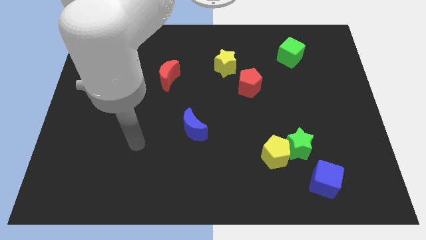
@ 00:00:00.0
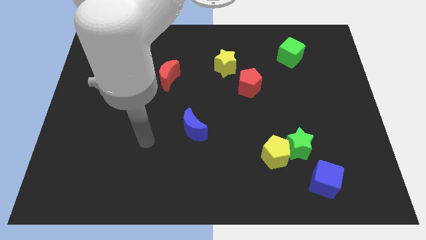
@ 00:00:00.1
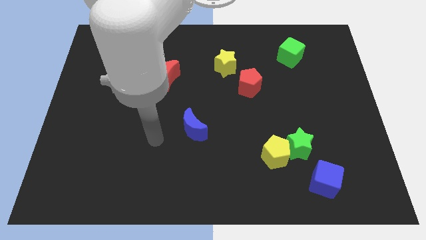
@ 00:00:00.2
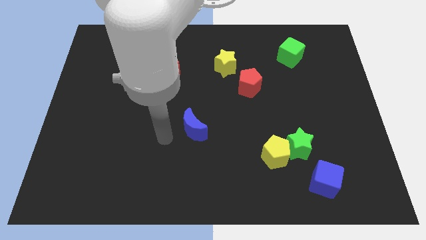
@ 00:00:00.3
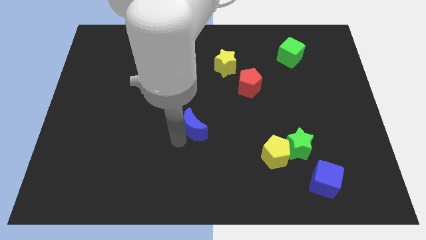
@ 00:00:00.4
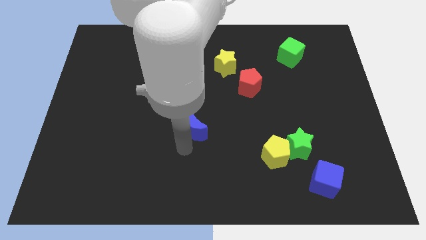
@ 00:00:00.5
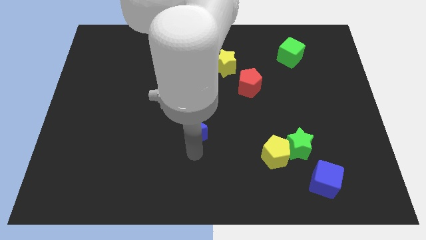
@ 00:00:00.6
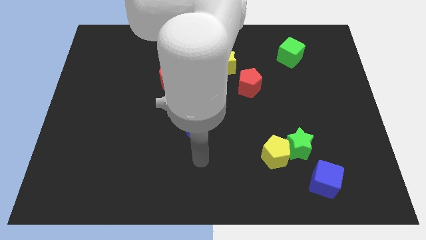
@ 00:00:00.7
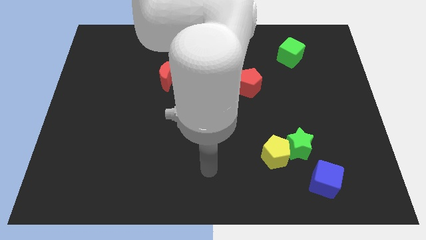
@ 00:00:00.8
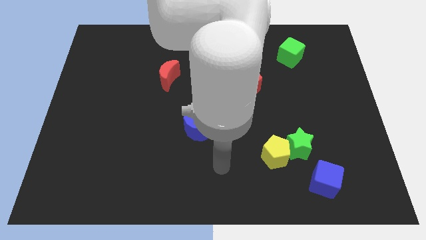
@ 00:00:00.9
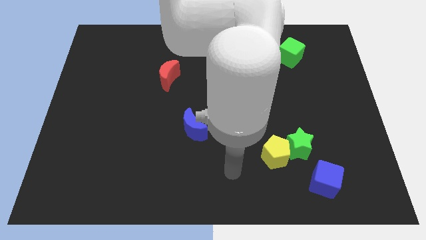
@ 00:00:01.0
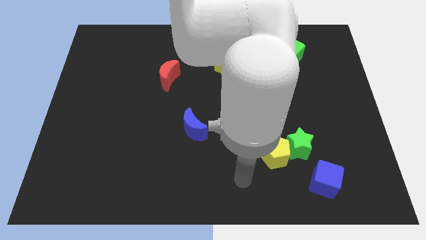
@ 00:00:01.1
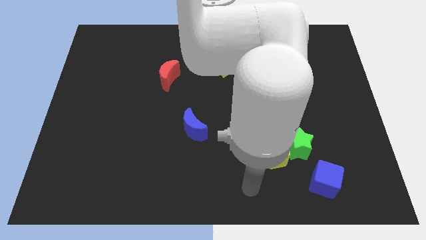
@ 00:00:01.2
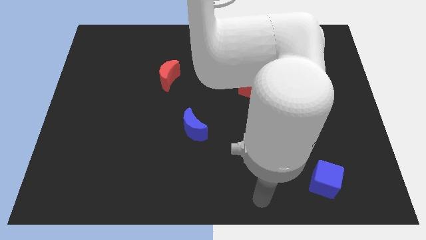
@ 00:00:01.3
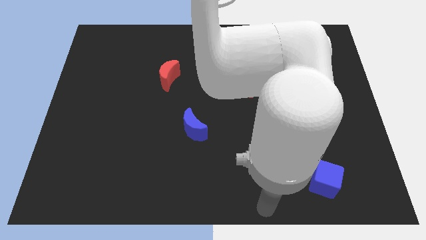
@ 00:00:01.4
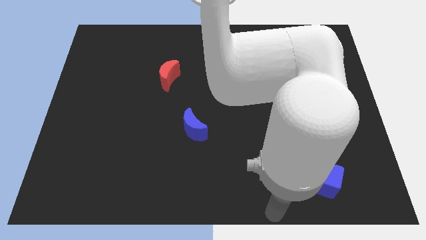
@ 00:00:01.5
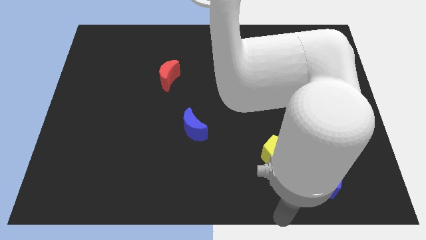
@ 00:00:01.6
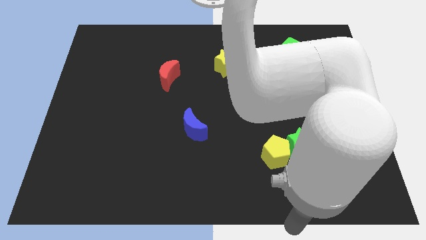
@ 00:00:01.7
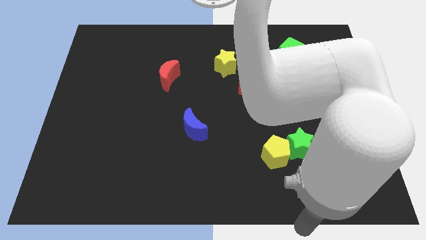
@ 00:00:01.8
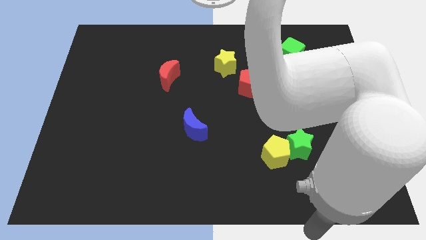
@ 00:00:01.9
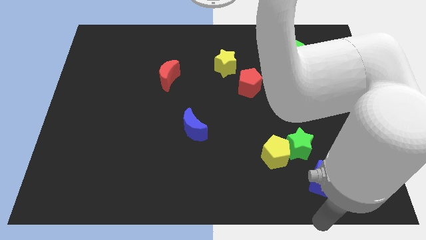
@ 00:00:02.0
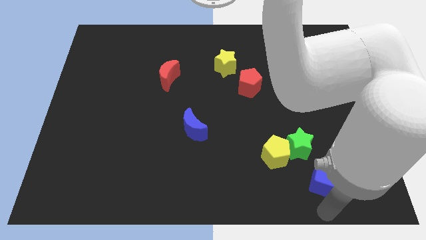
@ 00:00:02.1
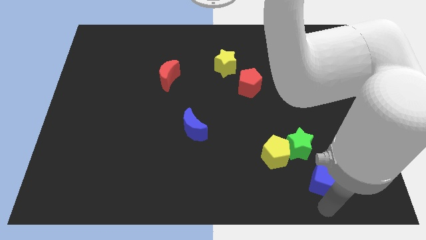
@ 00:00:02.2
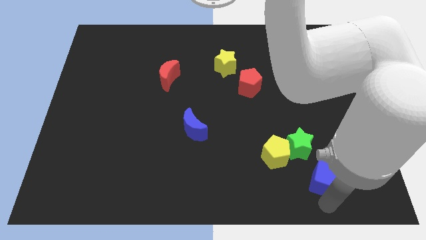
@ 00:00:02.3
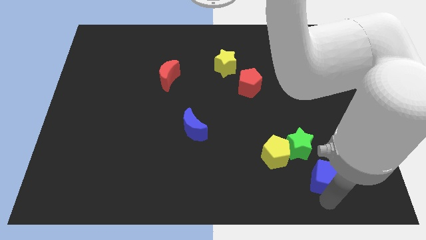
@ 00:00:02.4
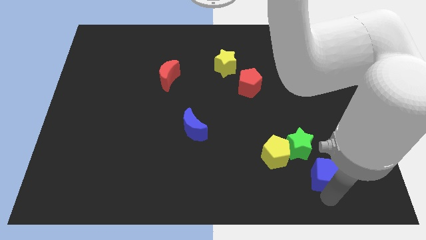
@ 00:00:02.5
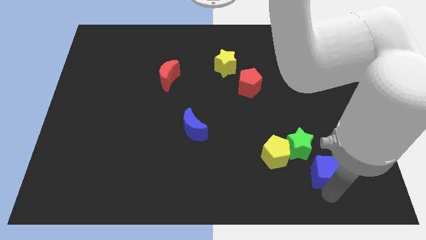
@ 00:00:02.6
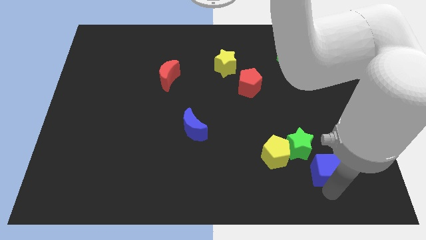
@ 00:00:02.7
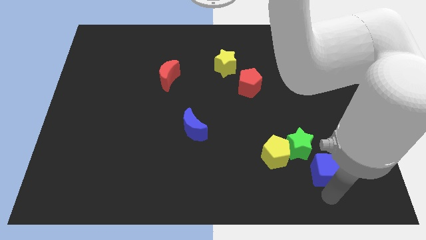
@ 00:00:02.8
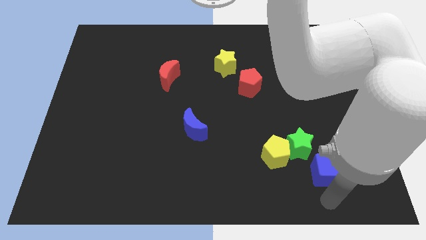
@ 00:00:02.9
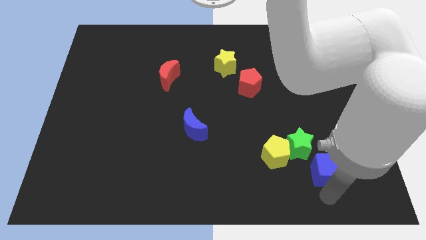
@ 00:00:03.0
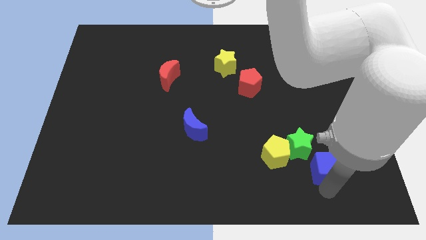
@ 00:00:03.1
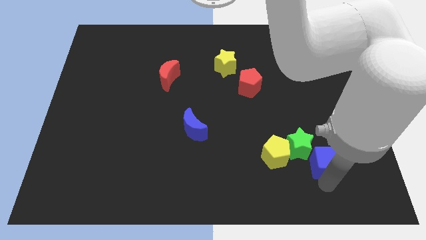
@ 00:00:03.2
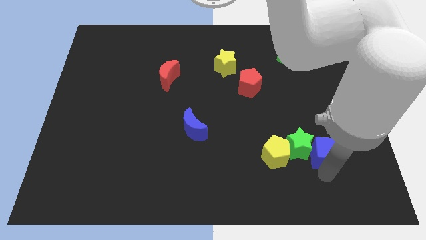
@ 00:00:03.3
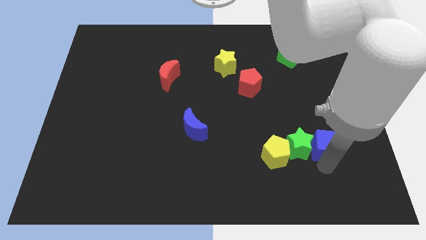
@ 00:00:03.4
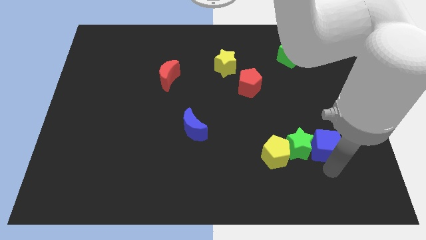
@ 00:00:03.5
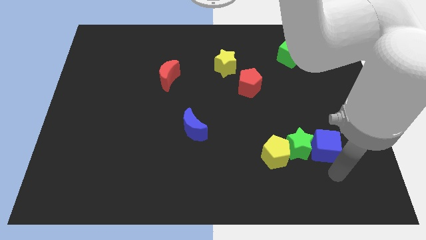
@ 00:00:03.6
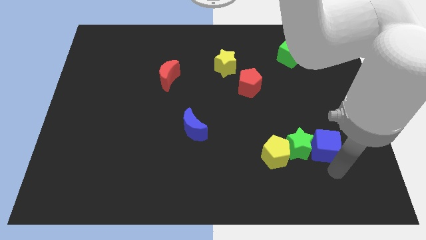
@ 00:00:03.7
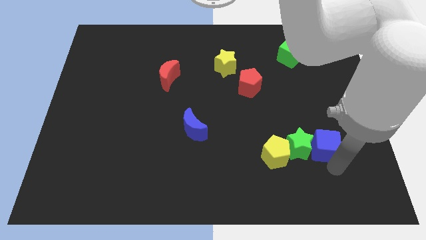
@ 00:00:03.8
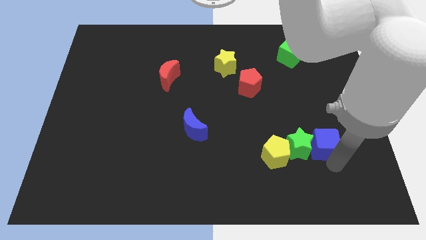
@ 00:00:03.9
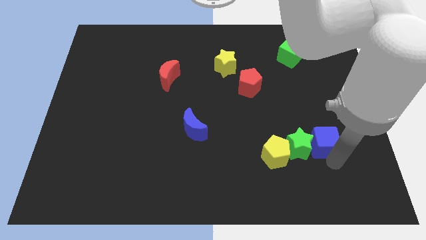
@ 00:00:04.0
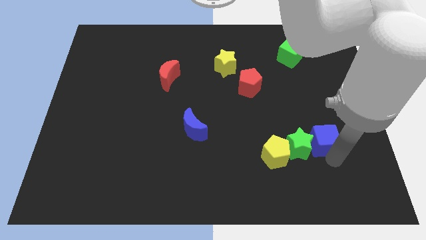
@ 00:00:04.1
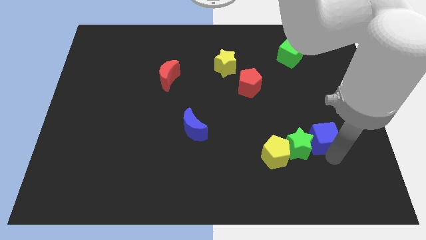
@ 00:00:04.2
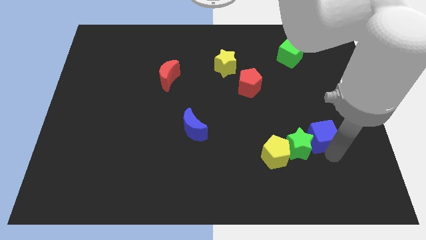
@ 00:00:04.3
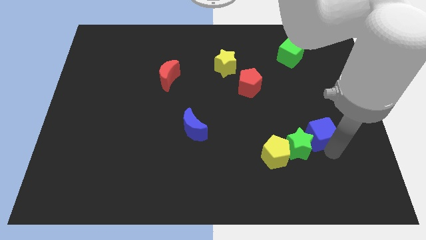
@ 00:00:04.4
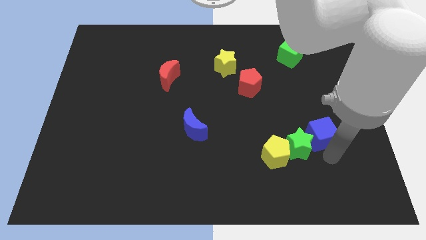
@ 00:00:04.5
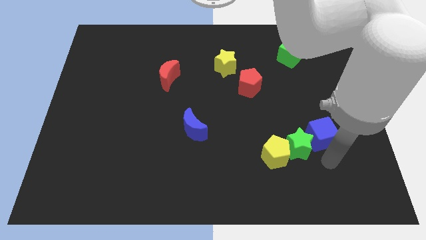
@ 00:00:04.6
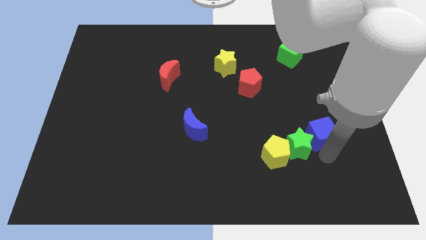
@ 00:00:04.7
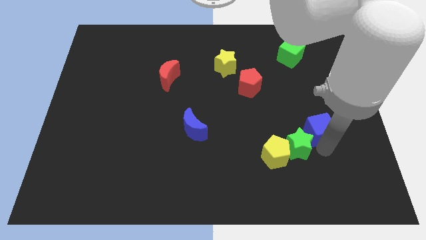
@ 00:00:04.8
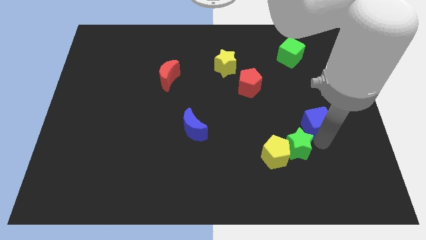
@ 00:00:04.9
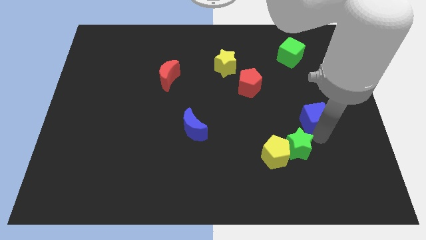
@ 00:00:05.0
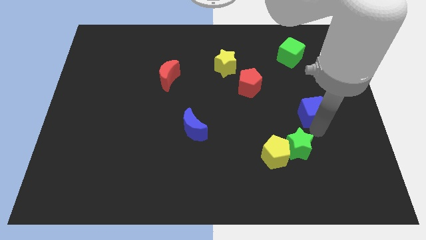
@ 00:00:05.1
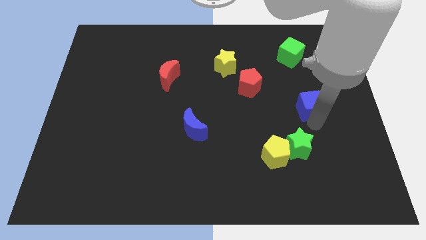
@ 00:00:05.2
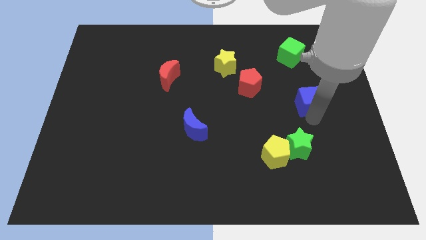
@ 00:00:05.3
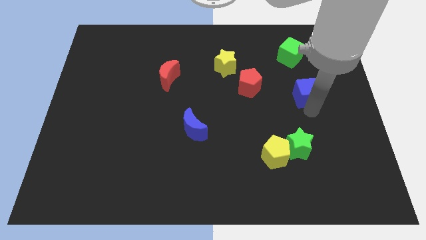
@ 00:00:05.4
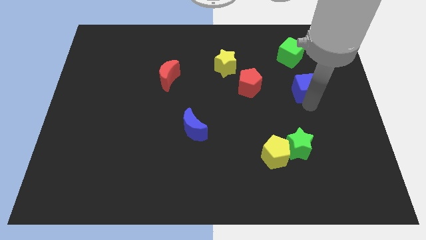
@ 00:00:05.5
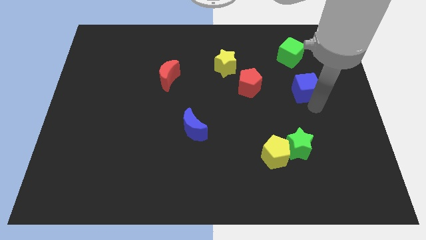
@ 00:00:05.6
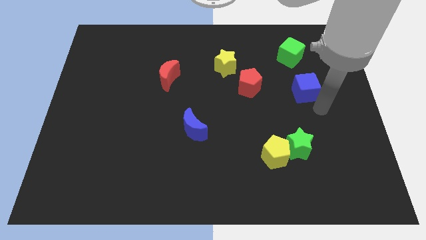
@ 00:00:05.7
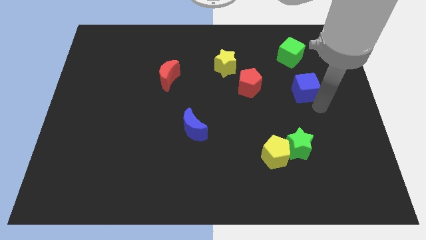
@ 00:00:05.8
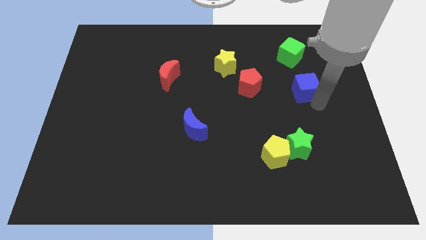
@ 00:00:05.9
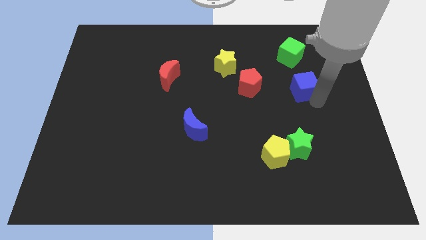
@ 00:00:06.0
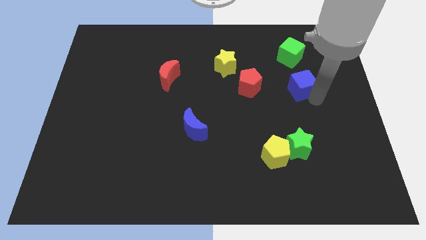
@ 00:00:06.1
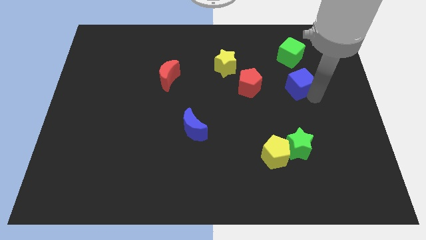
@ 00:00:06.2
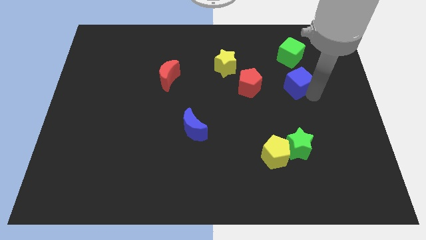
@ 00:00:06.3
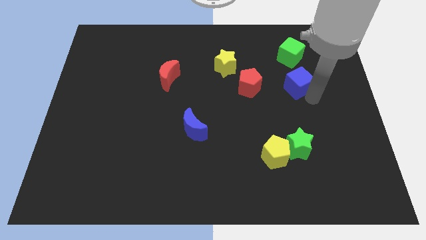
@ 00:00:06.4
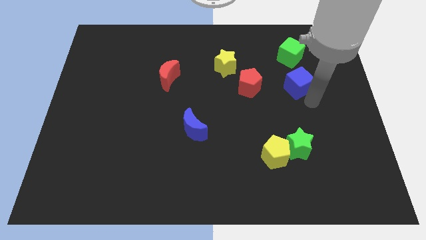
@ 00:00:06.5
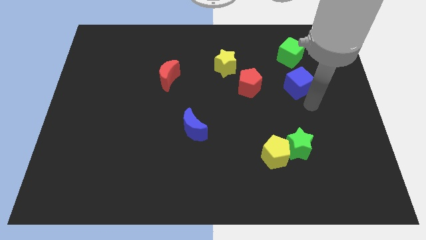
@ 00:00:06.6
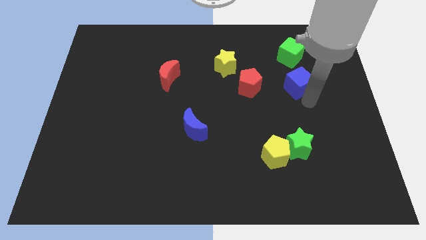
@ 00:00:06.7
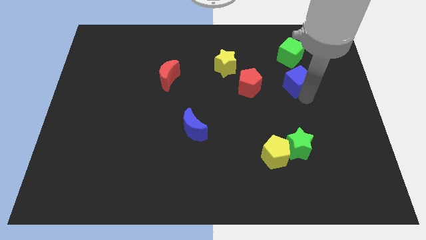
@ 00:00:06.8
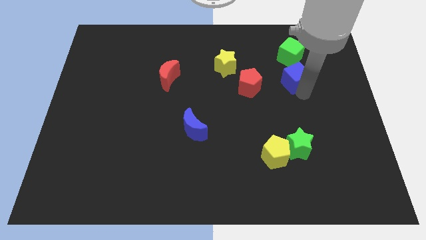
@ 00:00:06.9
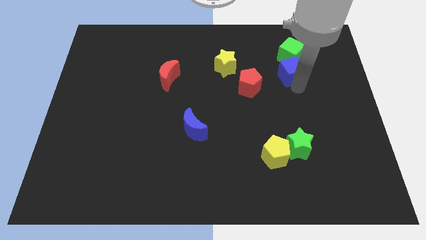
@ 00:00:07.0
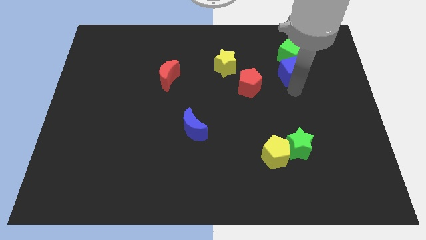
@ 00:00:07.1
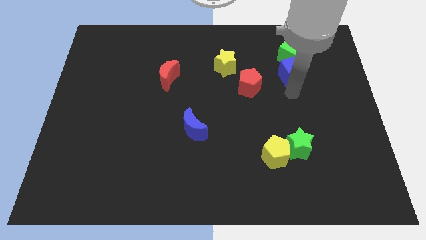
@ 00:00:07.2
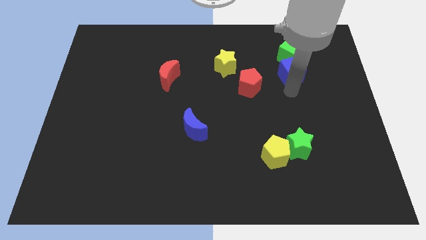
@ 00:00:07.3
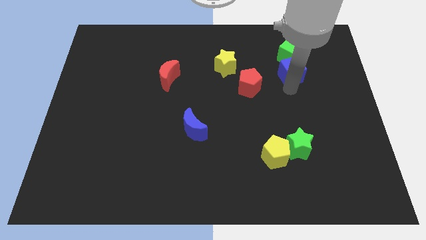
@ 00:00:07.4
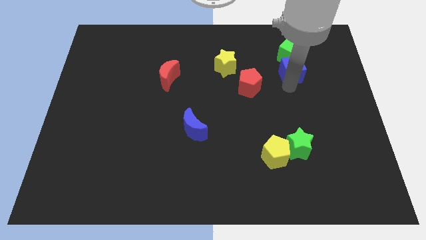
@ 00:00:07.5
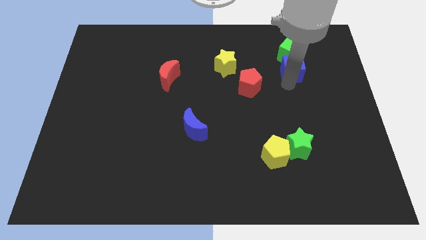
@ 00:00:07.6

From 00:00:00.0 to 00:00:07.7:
move the blue cube to the green cube
